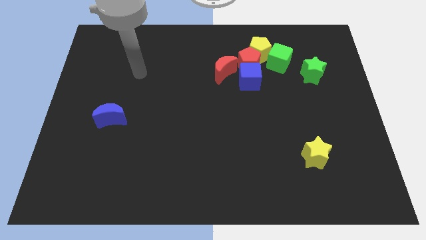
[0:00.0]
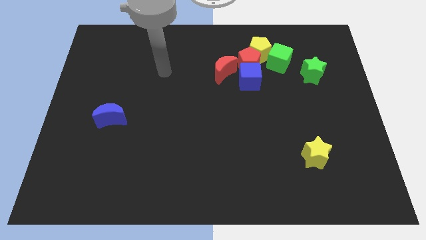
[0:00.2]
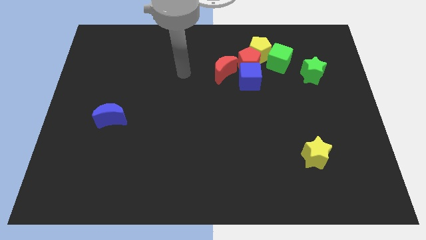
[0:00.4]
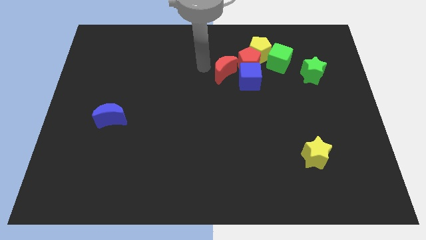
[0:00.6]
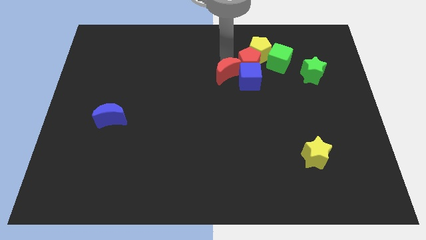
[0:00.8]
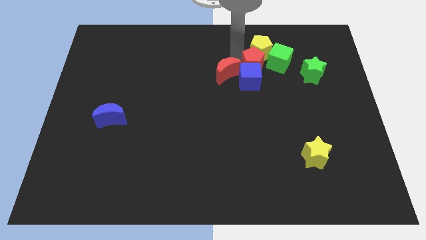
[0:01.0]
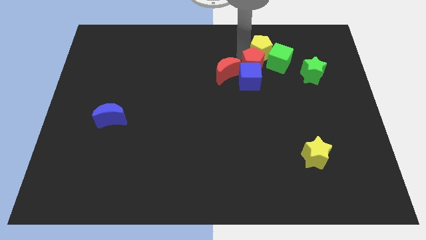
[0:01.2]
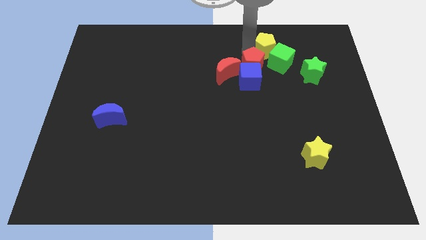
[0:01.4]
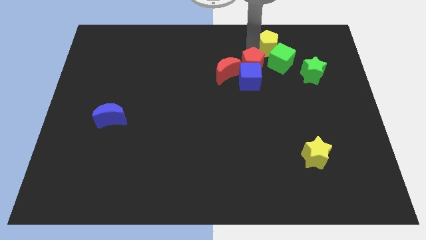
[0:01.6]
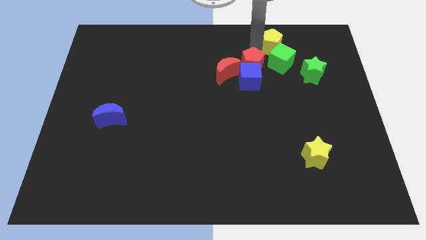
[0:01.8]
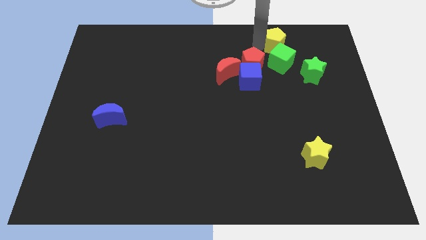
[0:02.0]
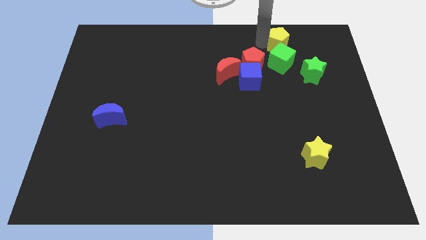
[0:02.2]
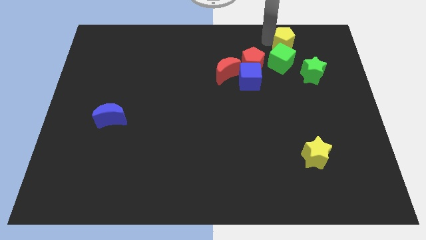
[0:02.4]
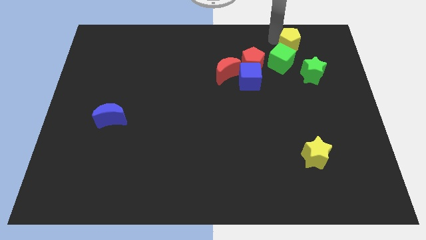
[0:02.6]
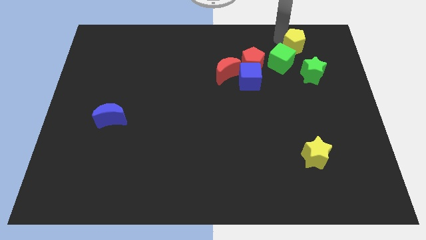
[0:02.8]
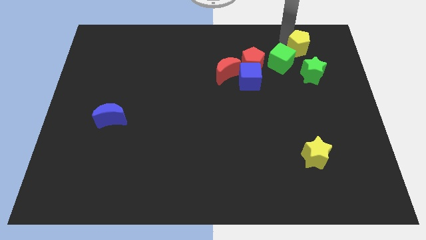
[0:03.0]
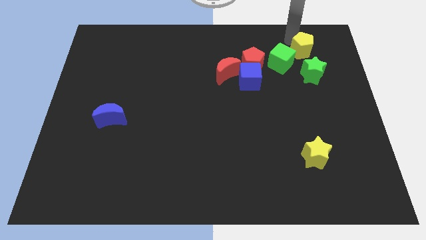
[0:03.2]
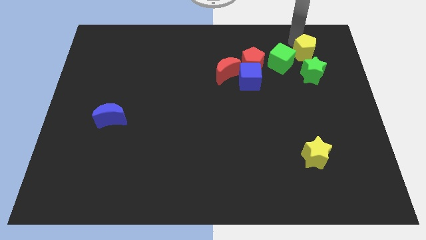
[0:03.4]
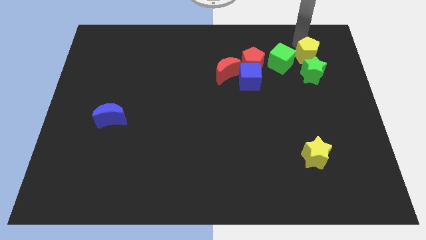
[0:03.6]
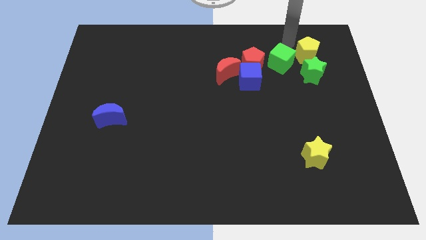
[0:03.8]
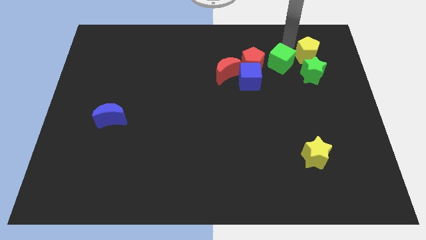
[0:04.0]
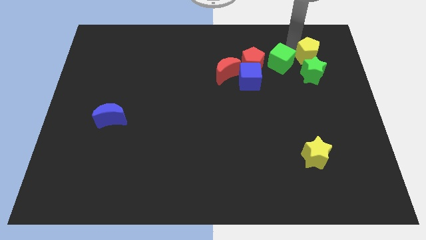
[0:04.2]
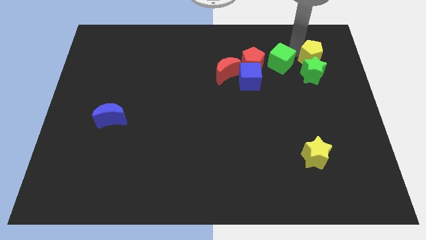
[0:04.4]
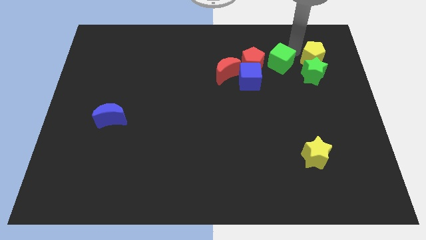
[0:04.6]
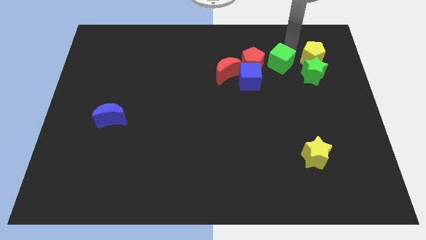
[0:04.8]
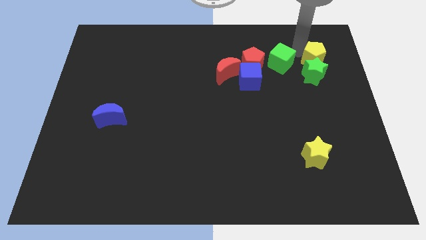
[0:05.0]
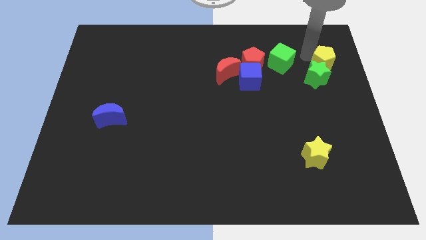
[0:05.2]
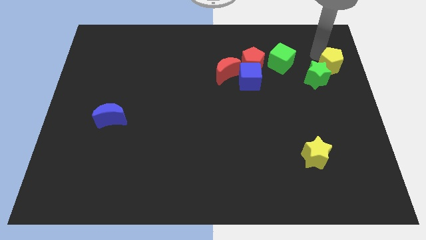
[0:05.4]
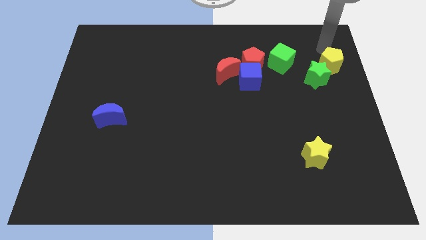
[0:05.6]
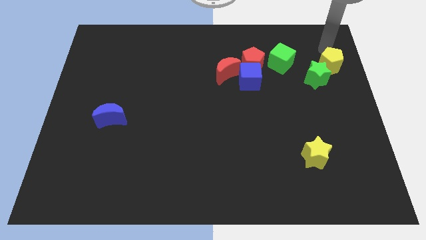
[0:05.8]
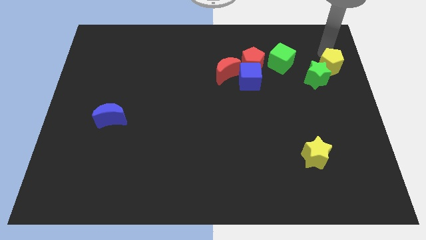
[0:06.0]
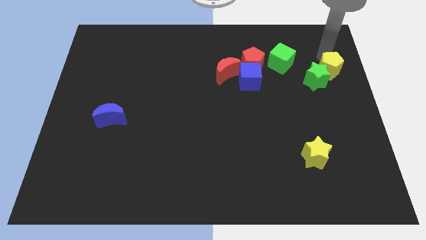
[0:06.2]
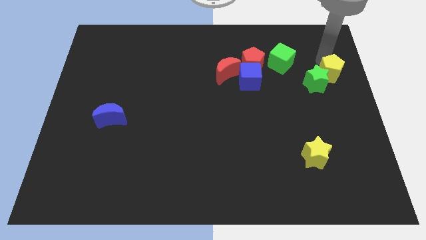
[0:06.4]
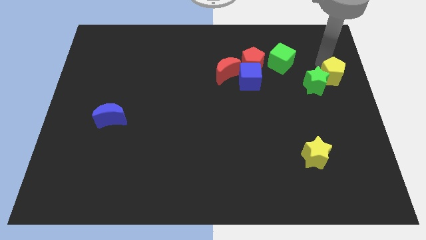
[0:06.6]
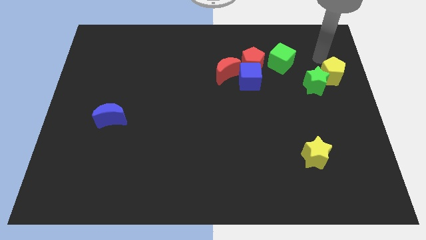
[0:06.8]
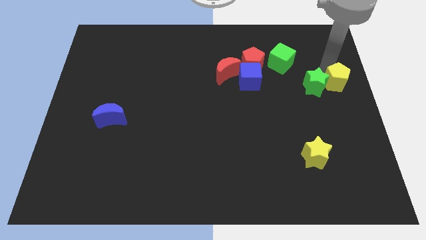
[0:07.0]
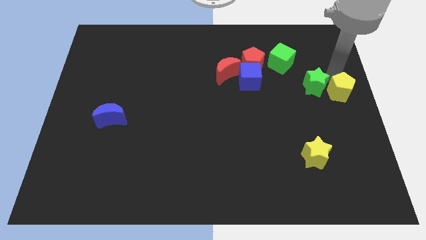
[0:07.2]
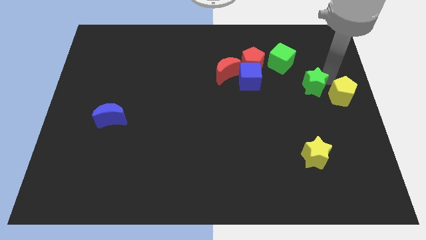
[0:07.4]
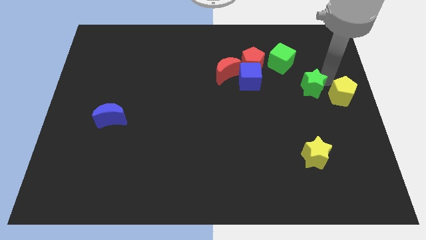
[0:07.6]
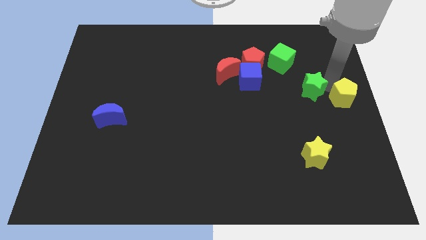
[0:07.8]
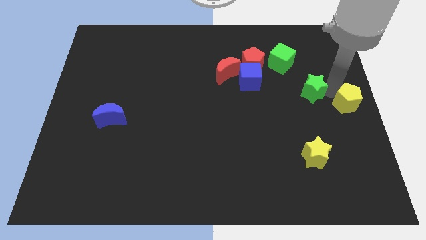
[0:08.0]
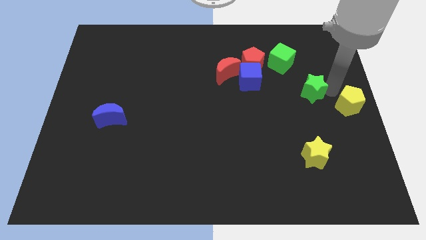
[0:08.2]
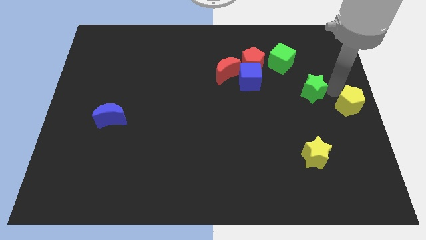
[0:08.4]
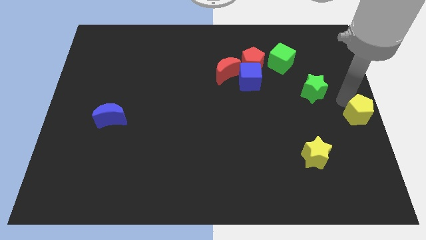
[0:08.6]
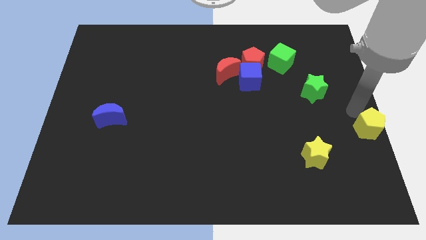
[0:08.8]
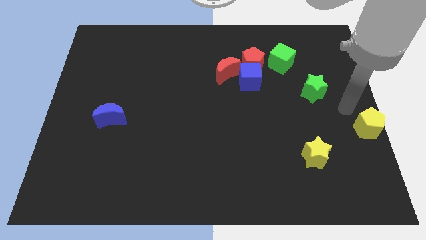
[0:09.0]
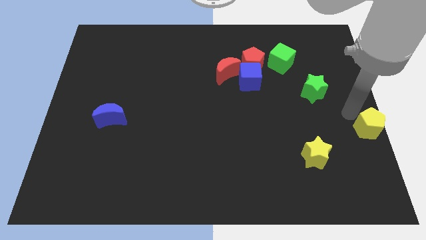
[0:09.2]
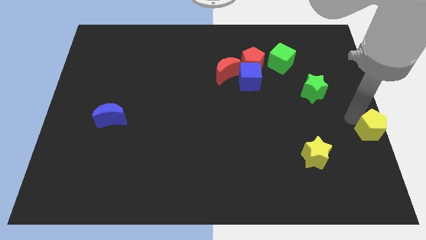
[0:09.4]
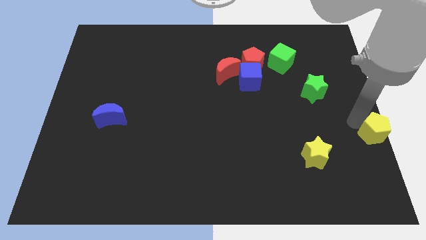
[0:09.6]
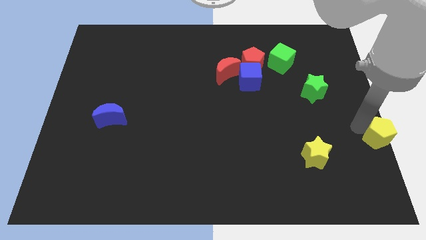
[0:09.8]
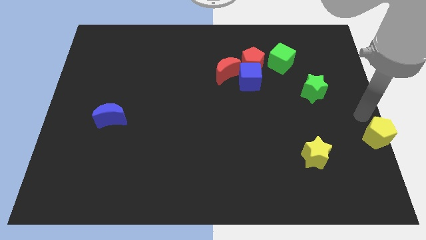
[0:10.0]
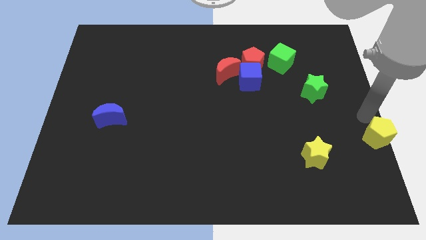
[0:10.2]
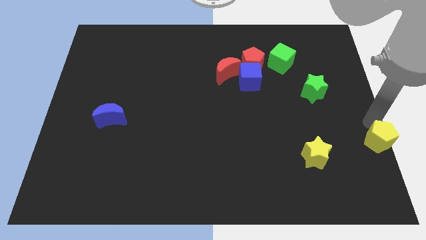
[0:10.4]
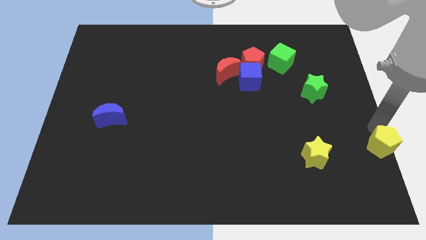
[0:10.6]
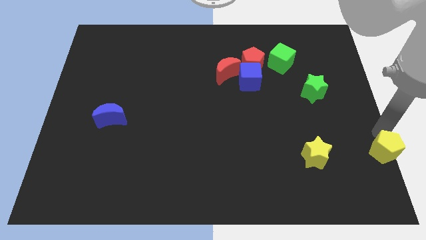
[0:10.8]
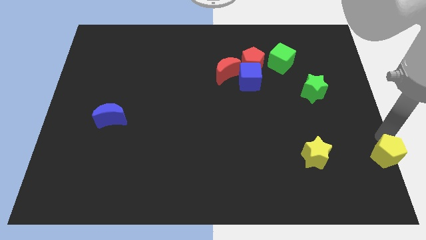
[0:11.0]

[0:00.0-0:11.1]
put the yellow pentagon to the bottom right corner

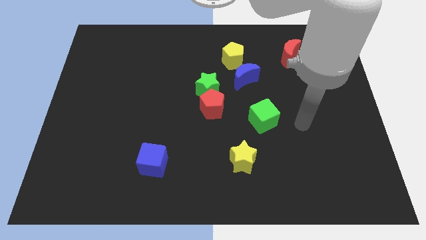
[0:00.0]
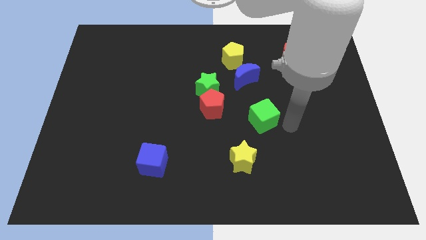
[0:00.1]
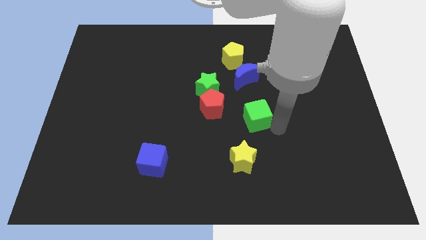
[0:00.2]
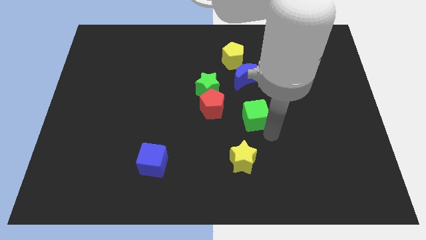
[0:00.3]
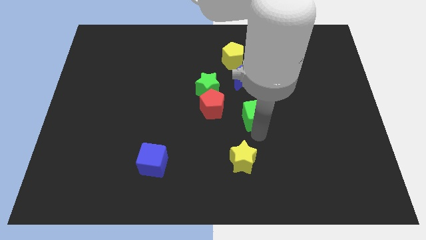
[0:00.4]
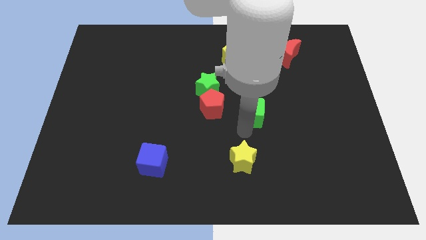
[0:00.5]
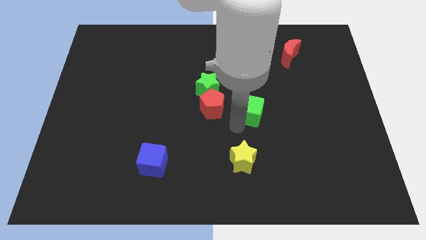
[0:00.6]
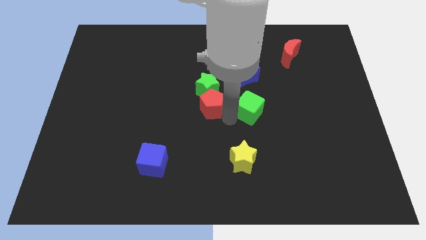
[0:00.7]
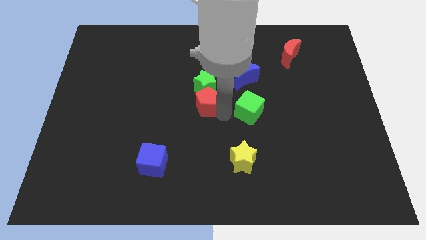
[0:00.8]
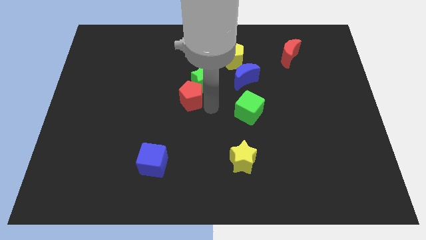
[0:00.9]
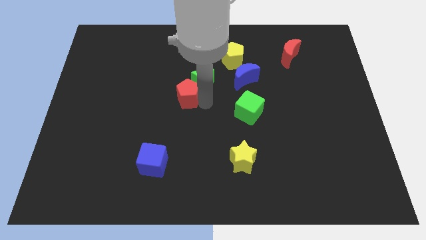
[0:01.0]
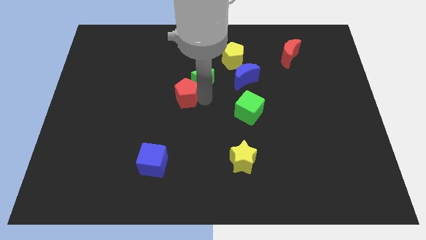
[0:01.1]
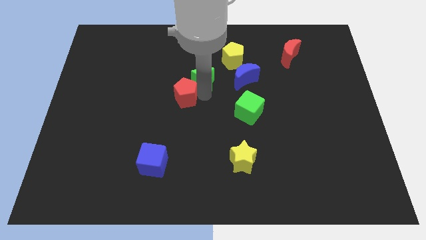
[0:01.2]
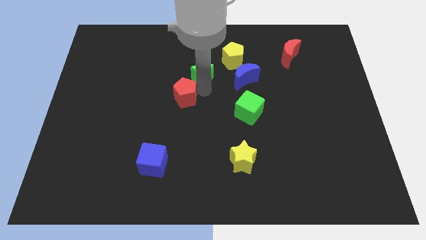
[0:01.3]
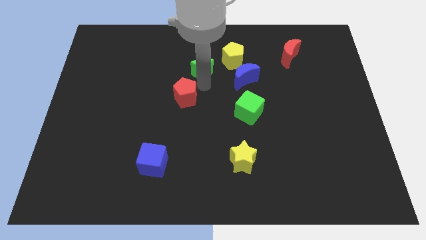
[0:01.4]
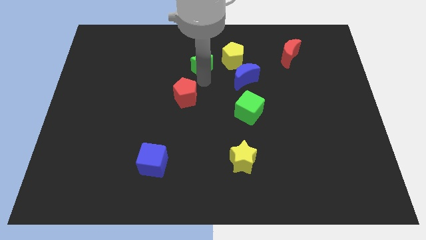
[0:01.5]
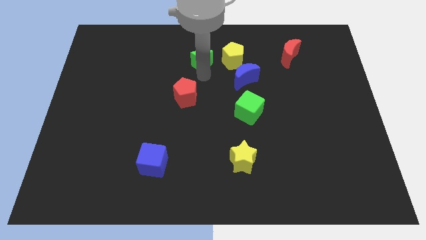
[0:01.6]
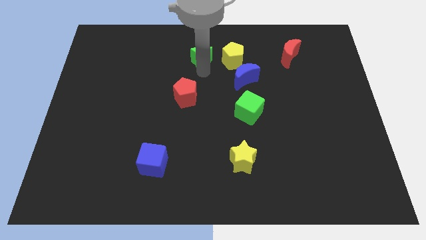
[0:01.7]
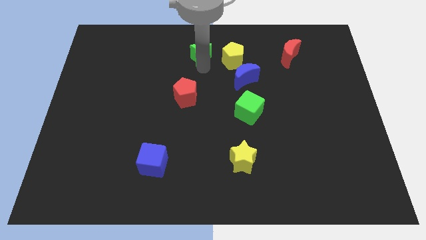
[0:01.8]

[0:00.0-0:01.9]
push the green star to the towards your base
